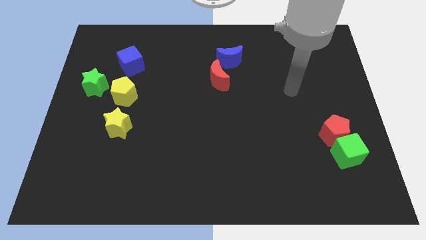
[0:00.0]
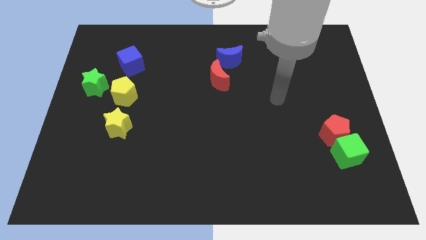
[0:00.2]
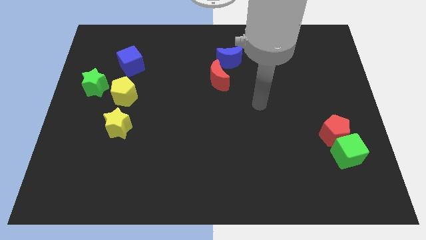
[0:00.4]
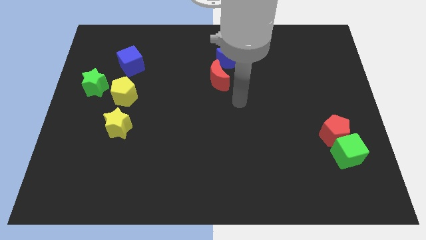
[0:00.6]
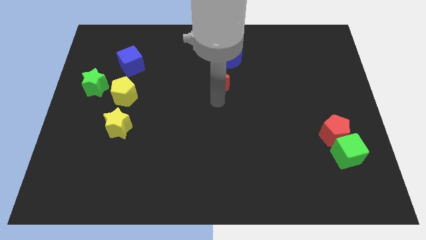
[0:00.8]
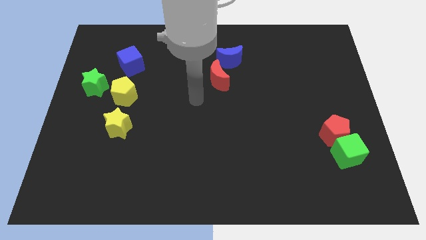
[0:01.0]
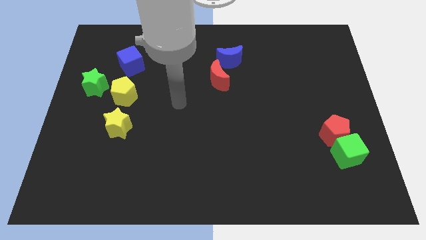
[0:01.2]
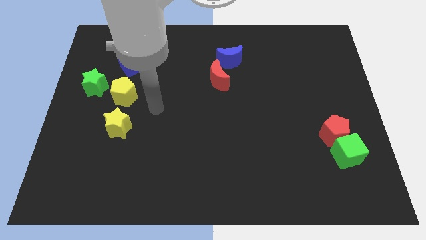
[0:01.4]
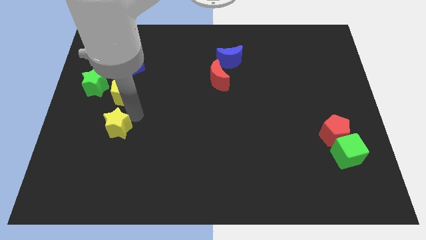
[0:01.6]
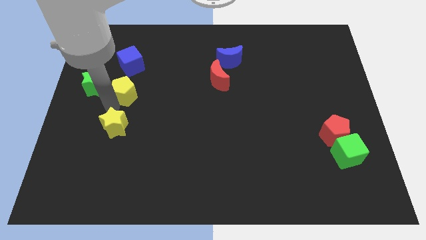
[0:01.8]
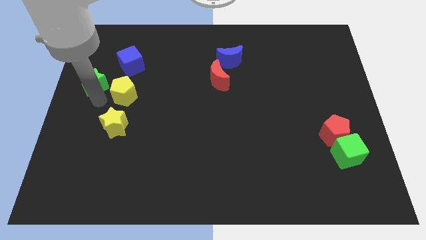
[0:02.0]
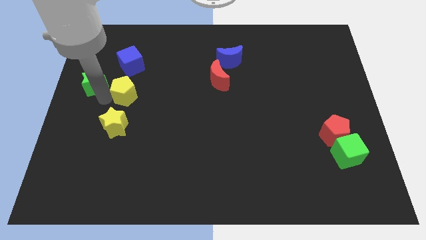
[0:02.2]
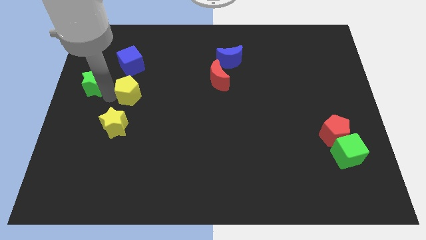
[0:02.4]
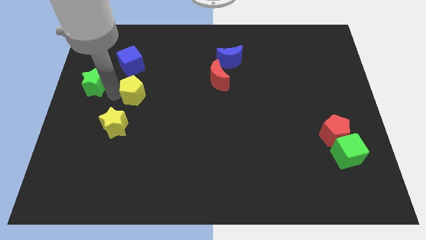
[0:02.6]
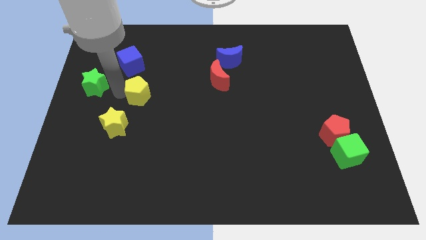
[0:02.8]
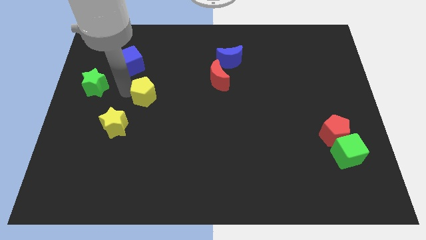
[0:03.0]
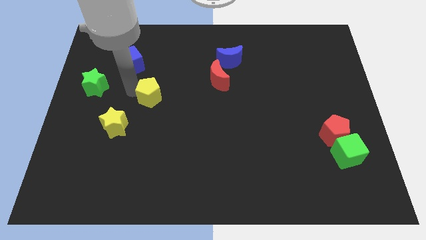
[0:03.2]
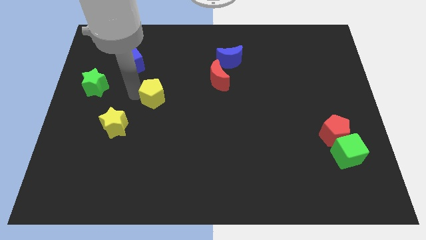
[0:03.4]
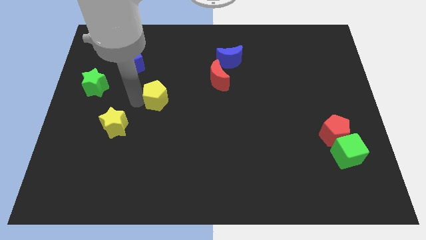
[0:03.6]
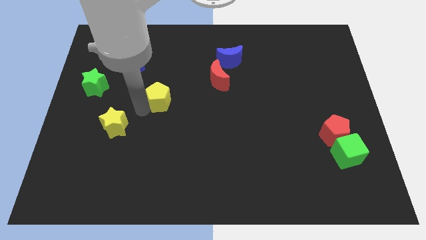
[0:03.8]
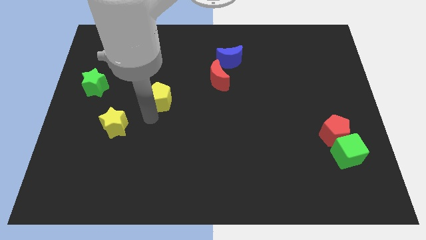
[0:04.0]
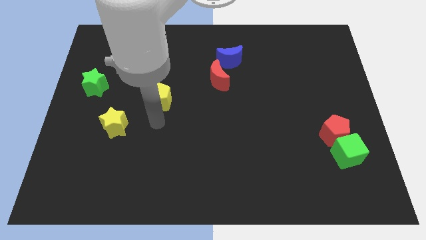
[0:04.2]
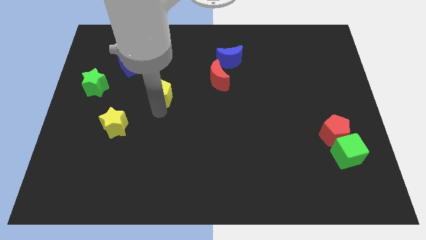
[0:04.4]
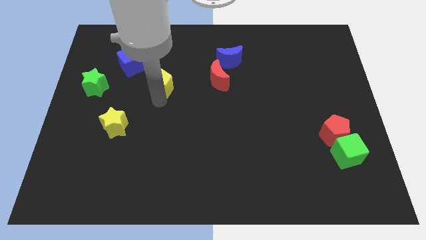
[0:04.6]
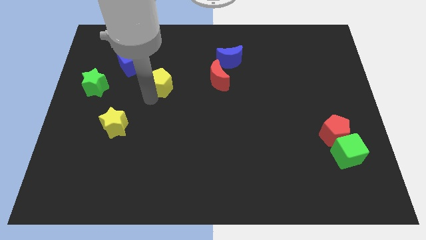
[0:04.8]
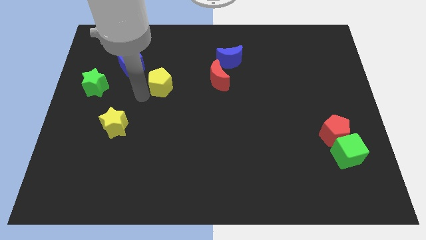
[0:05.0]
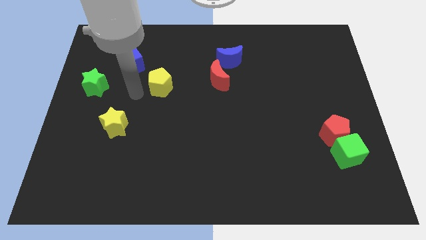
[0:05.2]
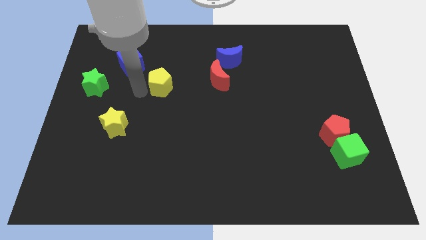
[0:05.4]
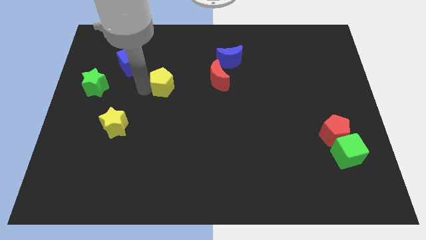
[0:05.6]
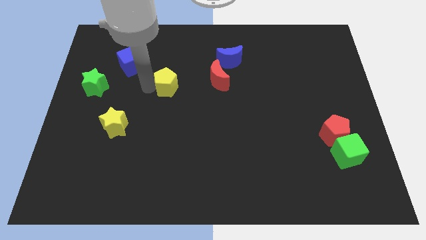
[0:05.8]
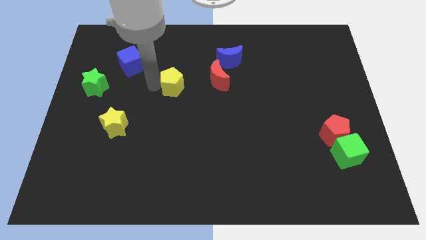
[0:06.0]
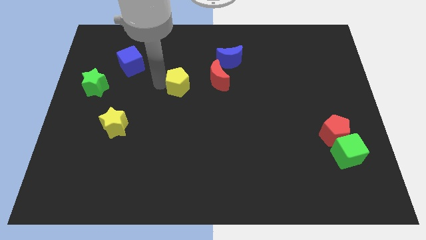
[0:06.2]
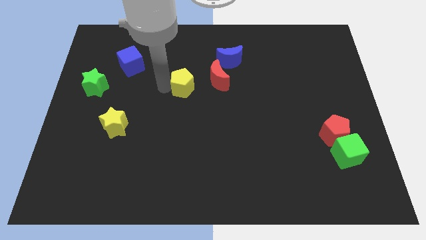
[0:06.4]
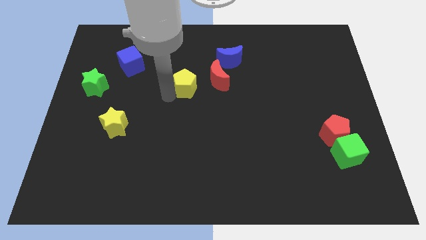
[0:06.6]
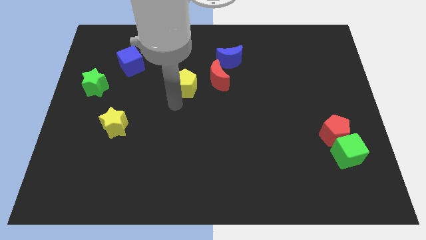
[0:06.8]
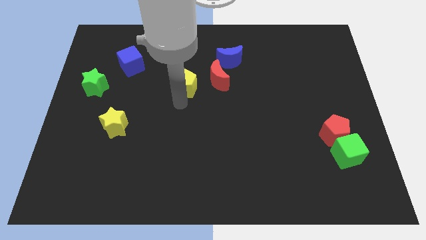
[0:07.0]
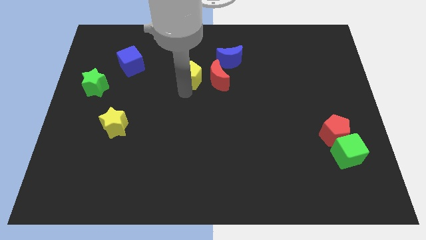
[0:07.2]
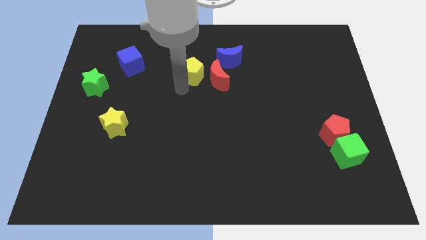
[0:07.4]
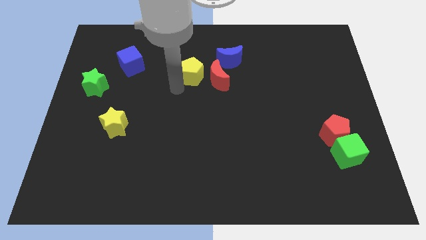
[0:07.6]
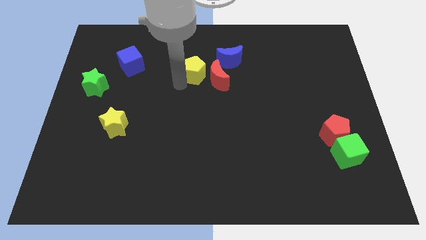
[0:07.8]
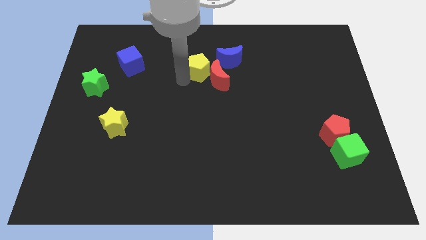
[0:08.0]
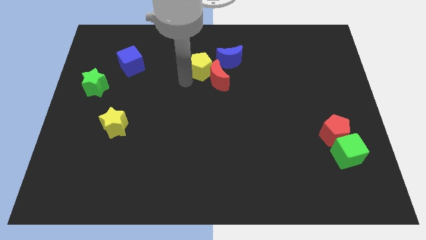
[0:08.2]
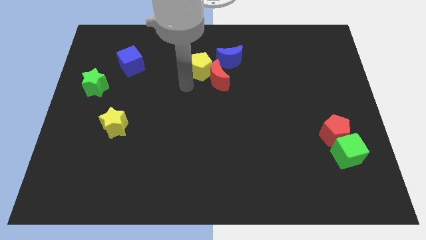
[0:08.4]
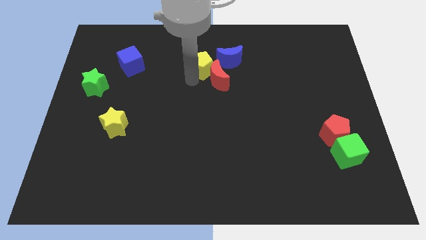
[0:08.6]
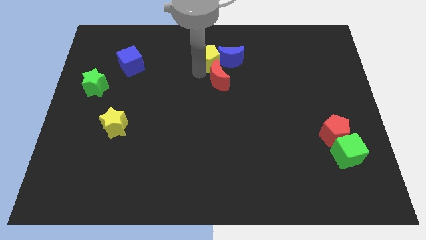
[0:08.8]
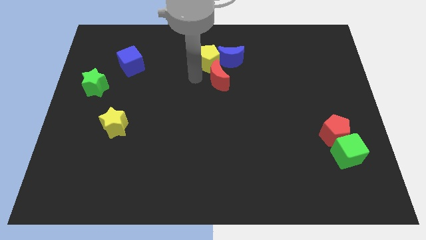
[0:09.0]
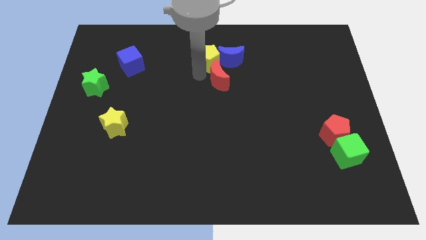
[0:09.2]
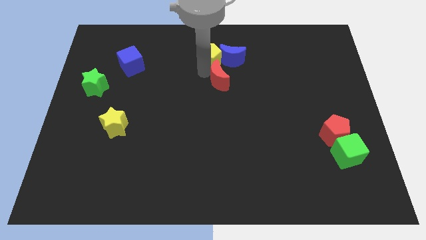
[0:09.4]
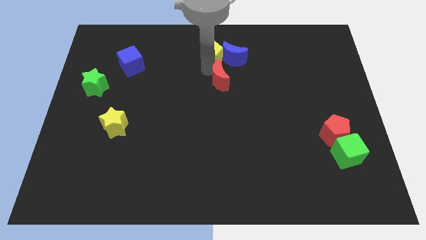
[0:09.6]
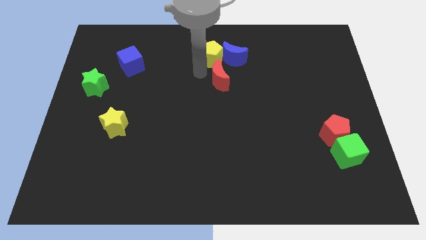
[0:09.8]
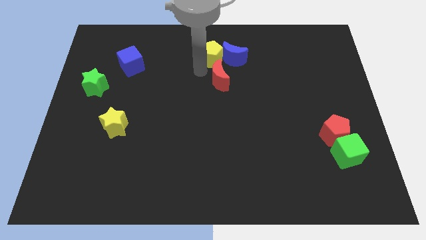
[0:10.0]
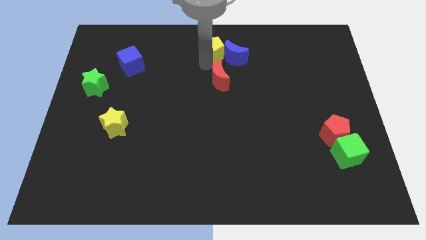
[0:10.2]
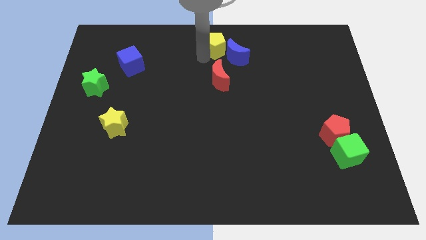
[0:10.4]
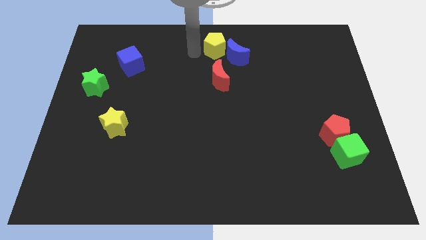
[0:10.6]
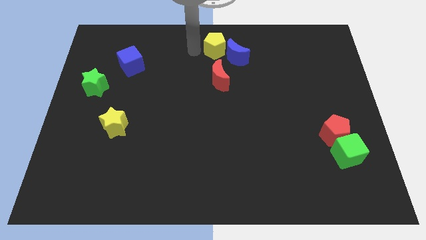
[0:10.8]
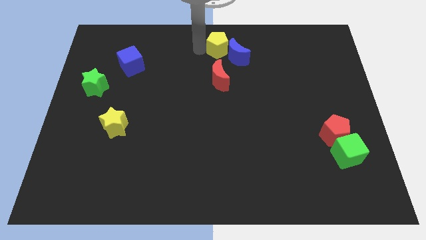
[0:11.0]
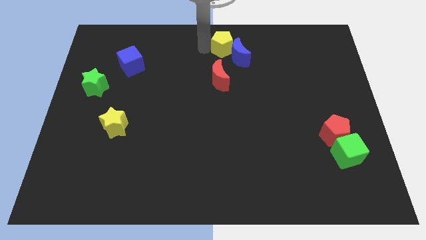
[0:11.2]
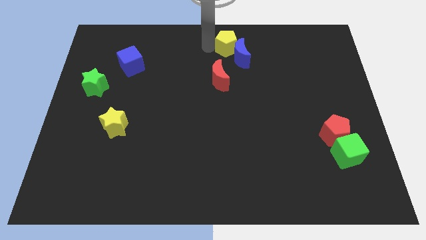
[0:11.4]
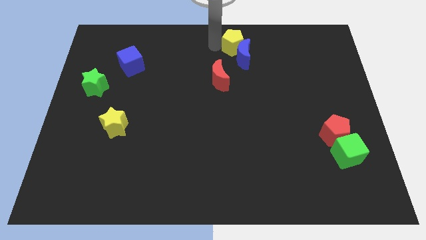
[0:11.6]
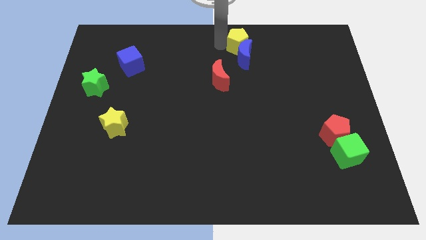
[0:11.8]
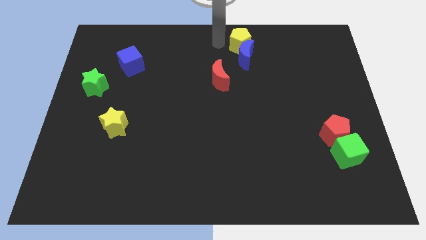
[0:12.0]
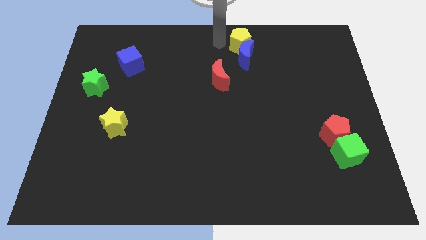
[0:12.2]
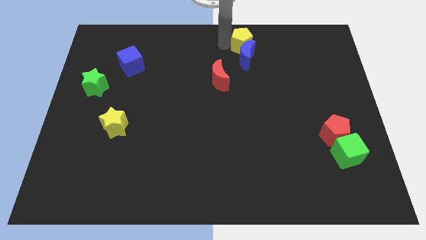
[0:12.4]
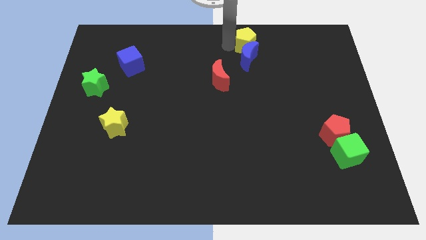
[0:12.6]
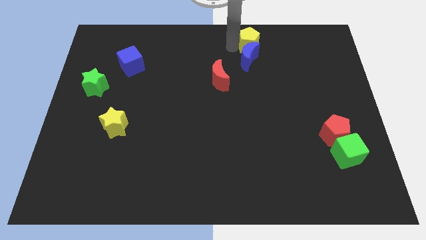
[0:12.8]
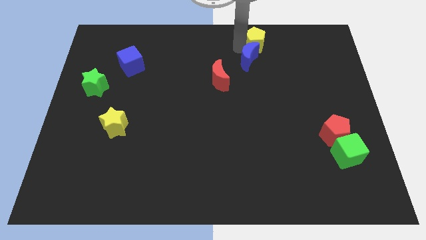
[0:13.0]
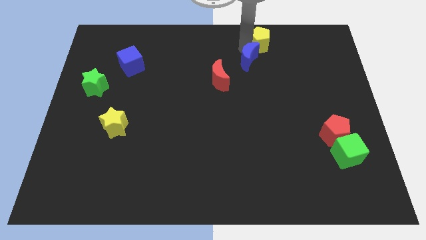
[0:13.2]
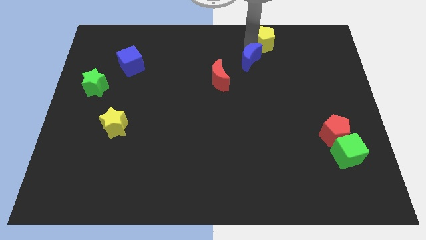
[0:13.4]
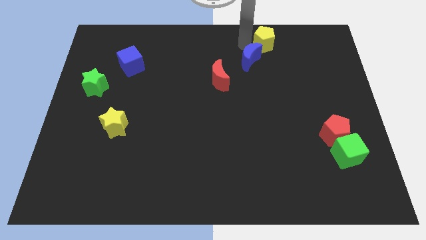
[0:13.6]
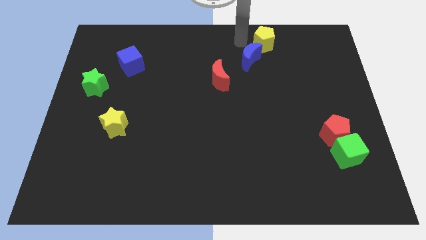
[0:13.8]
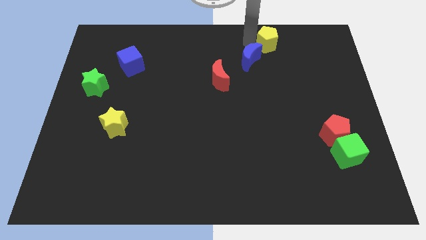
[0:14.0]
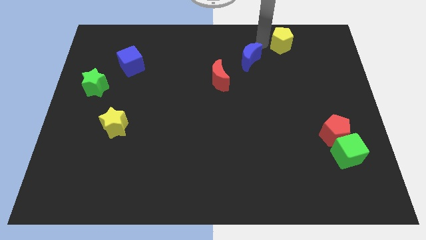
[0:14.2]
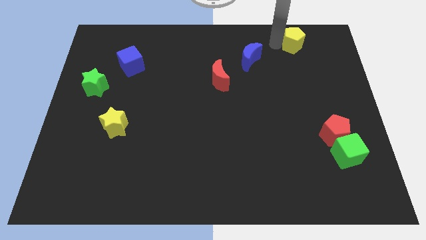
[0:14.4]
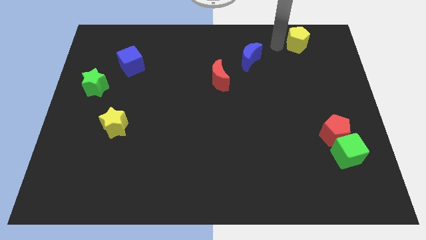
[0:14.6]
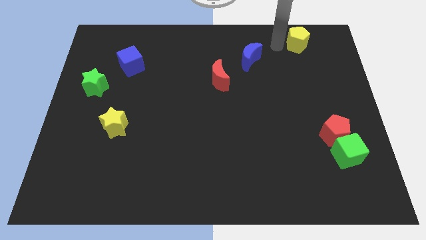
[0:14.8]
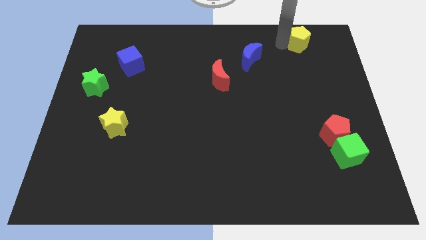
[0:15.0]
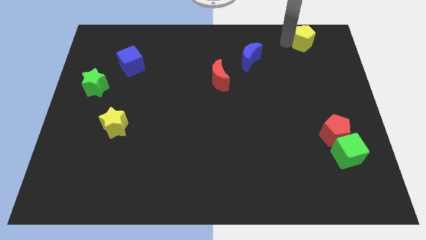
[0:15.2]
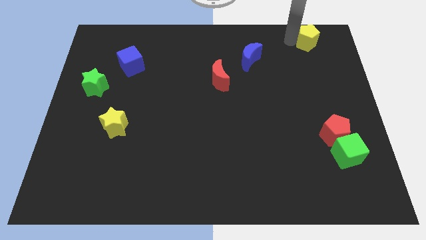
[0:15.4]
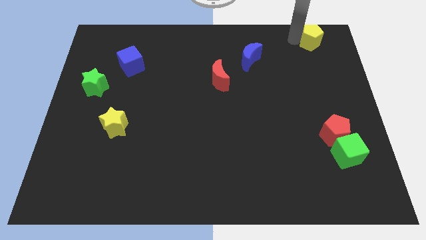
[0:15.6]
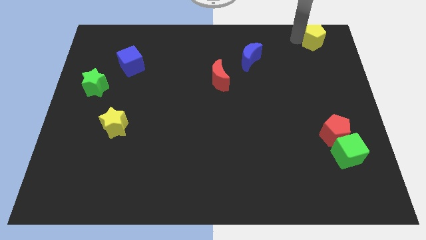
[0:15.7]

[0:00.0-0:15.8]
put the yellow pentagon to the upper right corner
